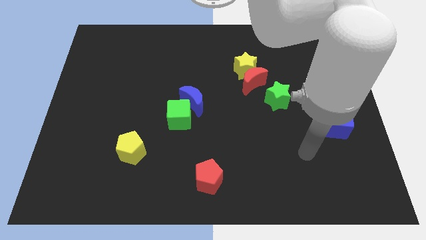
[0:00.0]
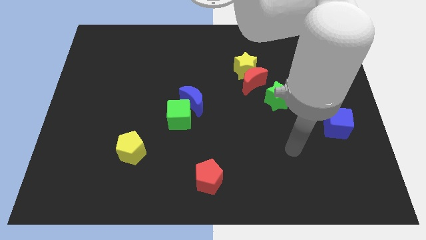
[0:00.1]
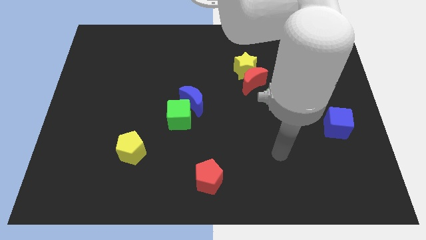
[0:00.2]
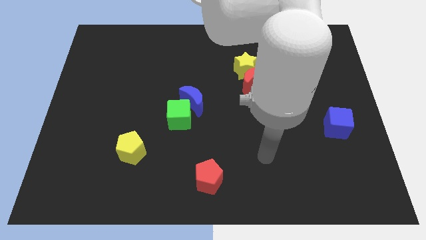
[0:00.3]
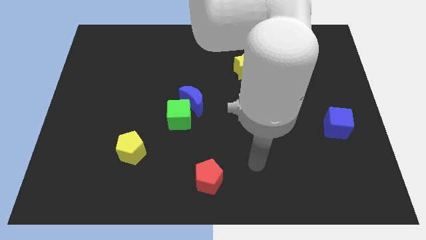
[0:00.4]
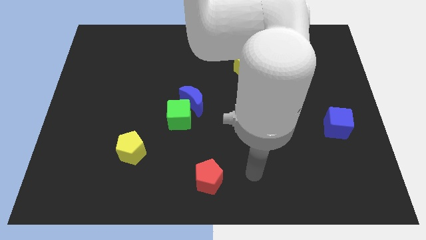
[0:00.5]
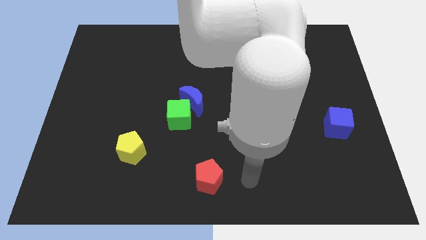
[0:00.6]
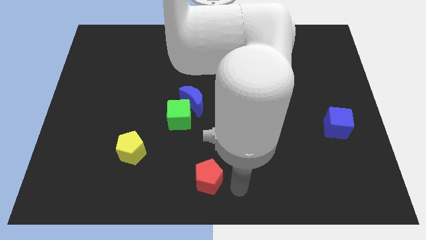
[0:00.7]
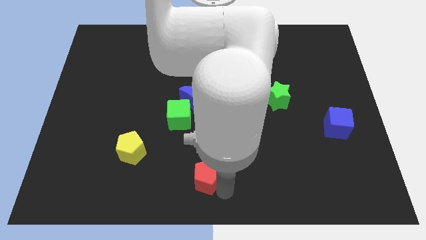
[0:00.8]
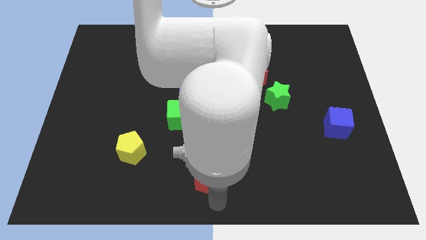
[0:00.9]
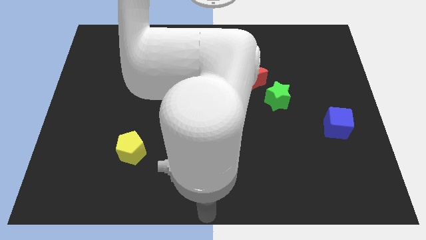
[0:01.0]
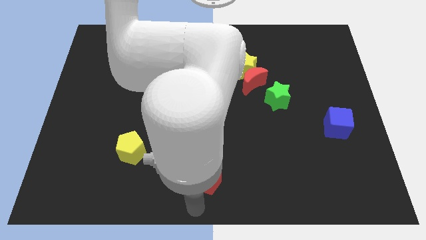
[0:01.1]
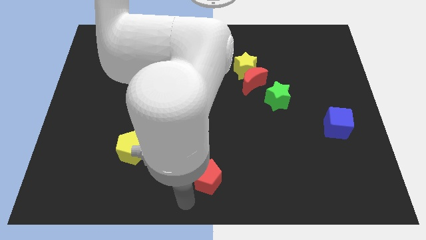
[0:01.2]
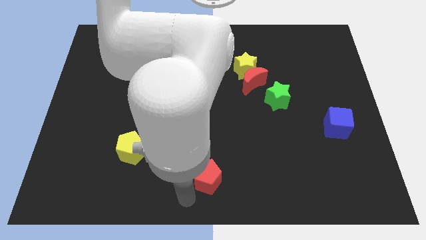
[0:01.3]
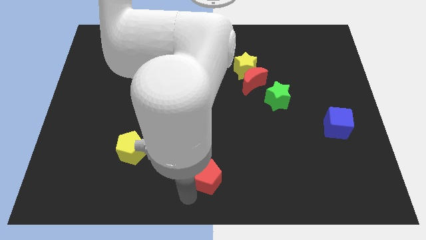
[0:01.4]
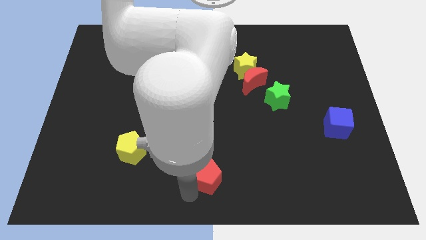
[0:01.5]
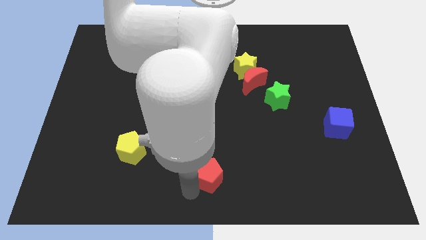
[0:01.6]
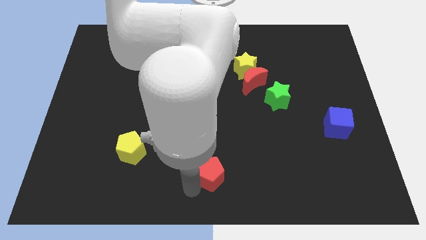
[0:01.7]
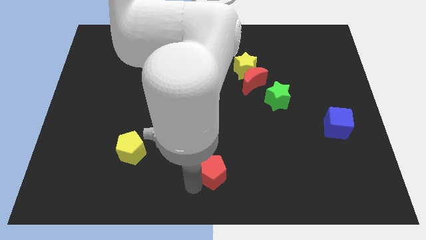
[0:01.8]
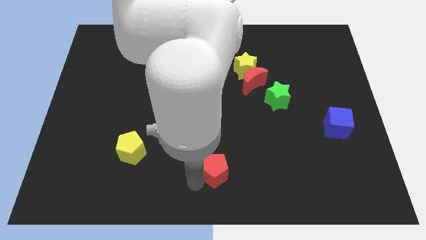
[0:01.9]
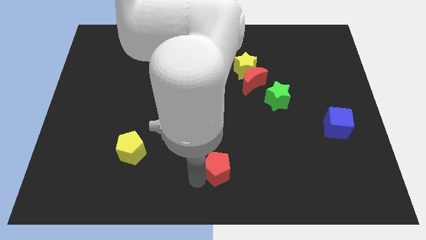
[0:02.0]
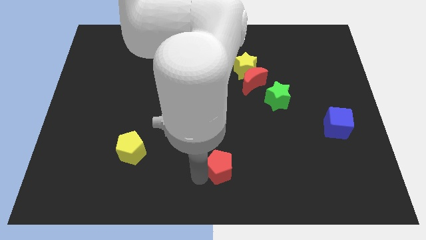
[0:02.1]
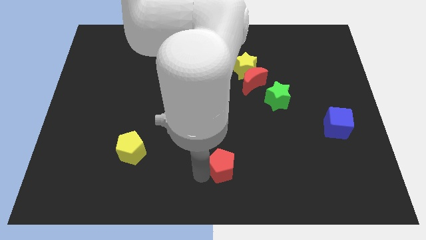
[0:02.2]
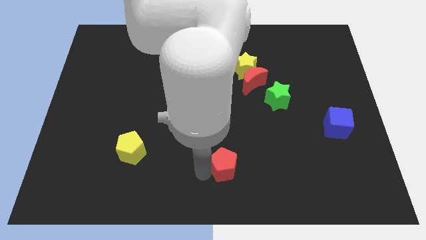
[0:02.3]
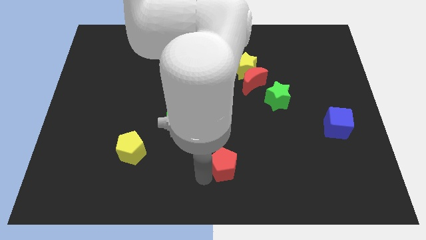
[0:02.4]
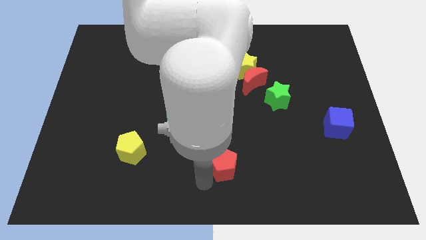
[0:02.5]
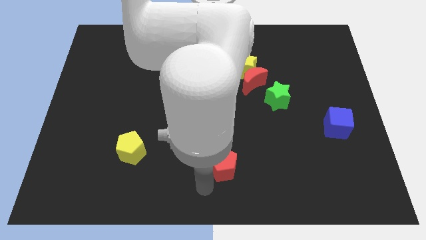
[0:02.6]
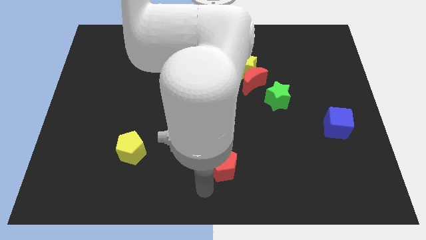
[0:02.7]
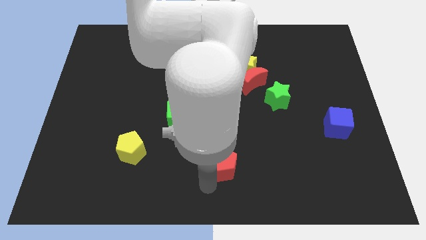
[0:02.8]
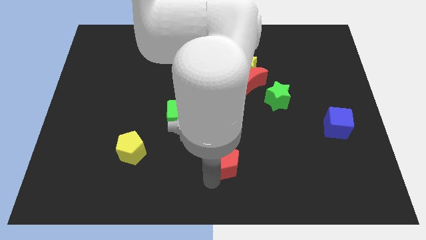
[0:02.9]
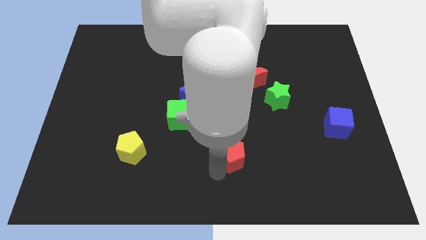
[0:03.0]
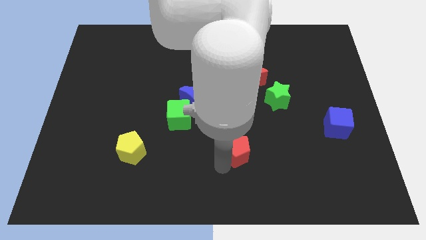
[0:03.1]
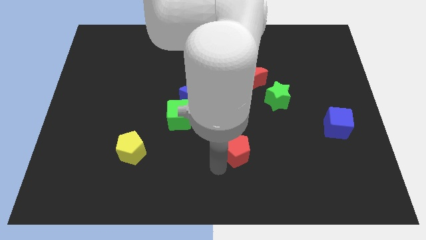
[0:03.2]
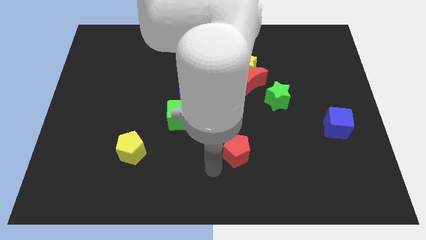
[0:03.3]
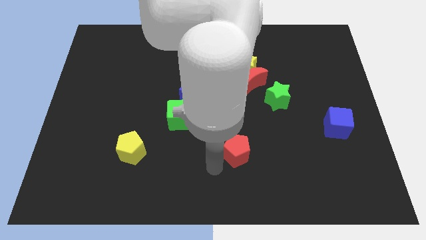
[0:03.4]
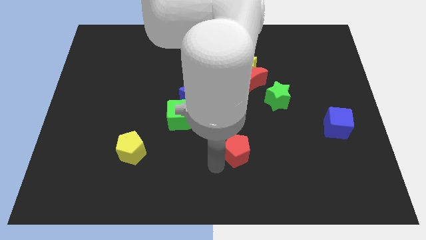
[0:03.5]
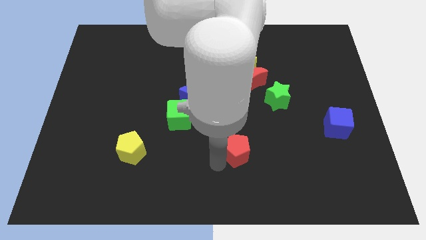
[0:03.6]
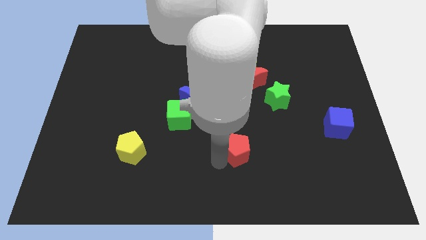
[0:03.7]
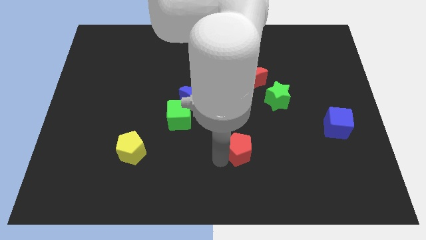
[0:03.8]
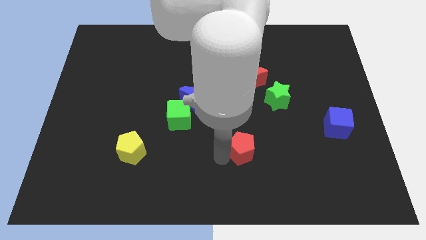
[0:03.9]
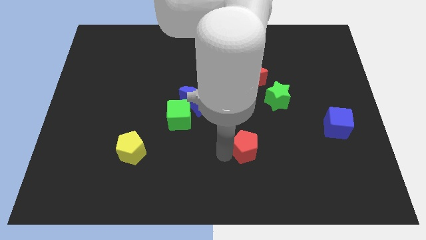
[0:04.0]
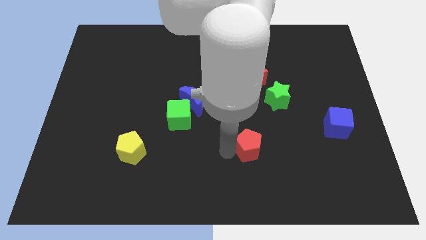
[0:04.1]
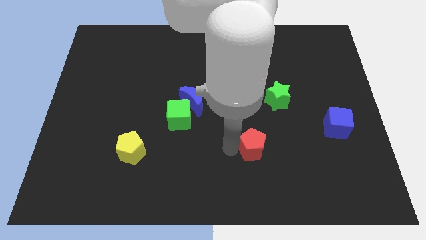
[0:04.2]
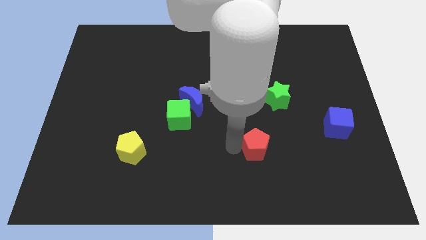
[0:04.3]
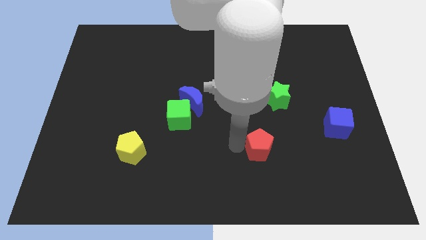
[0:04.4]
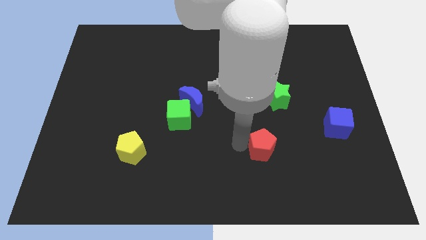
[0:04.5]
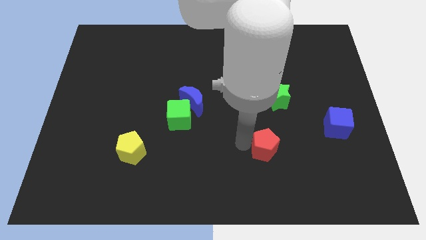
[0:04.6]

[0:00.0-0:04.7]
push the red pentagon below the green star

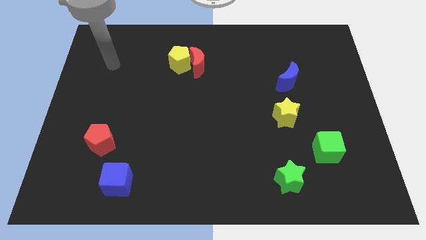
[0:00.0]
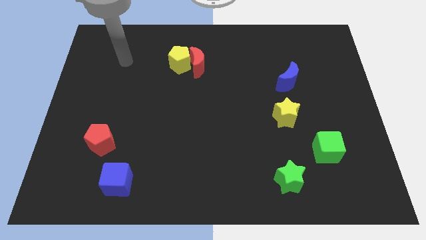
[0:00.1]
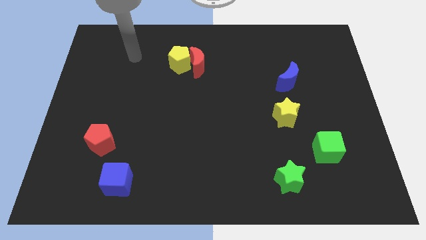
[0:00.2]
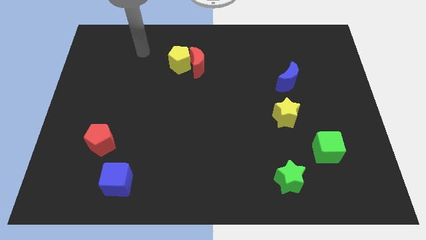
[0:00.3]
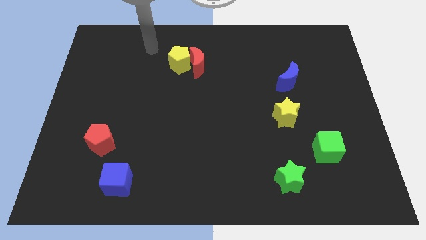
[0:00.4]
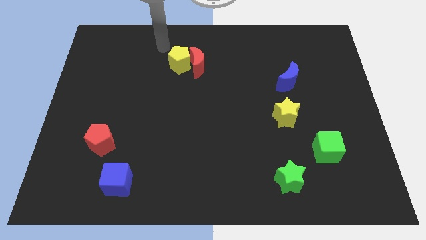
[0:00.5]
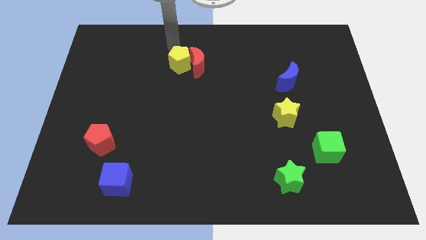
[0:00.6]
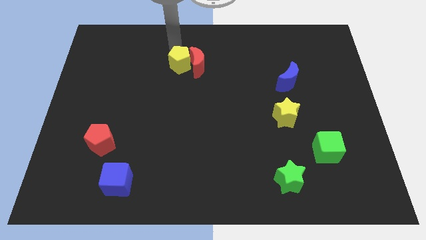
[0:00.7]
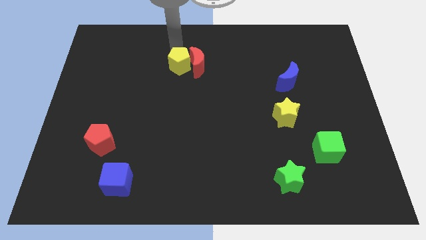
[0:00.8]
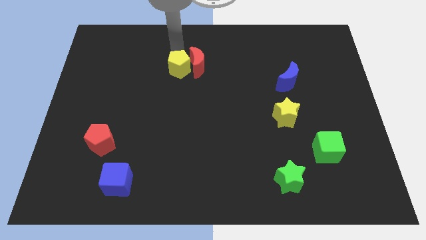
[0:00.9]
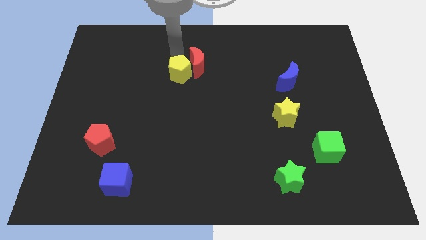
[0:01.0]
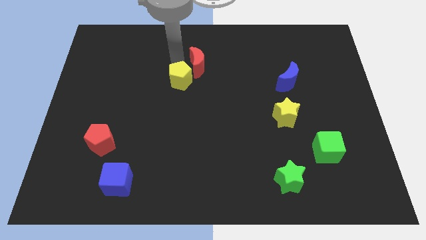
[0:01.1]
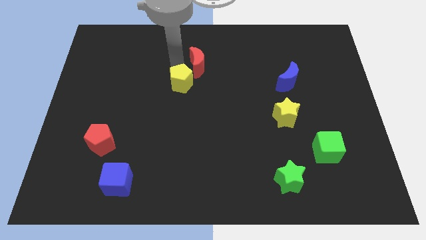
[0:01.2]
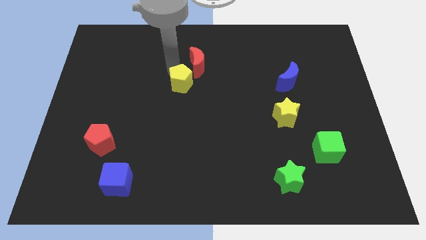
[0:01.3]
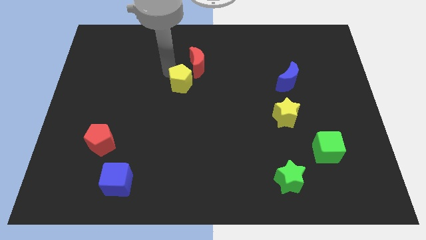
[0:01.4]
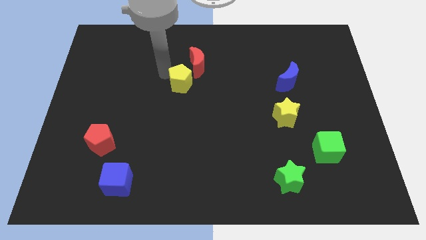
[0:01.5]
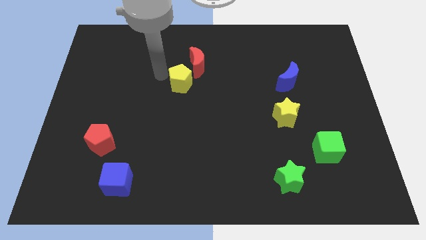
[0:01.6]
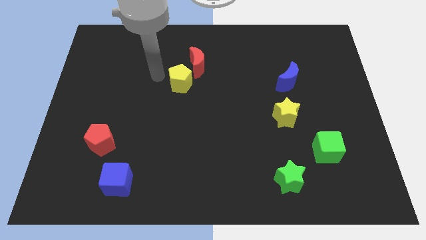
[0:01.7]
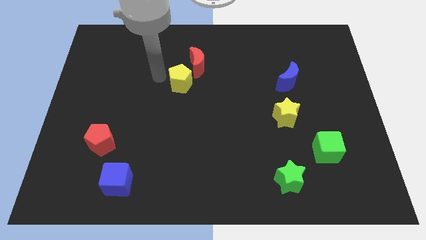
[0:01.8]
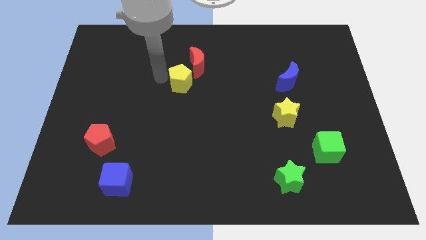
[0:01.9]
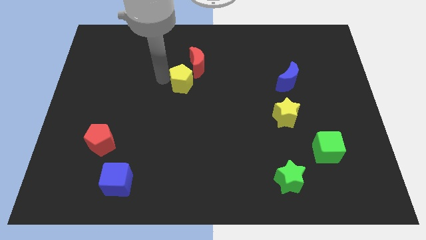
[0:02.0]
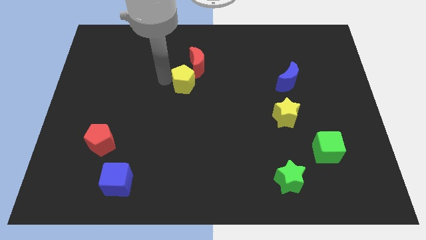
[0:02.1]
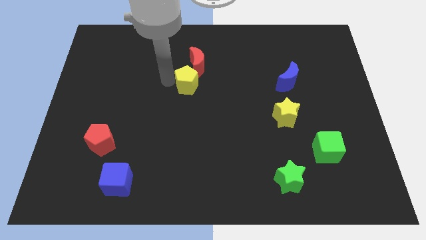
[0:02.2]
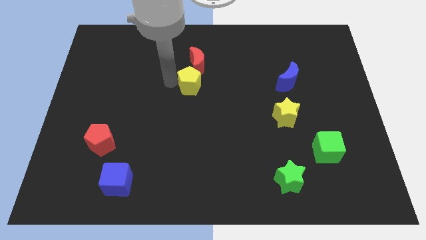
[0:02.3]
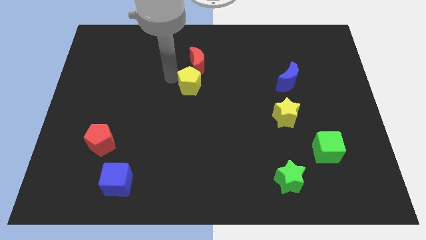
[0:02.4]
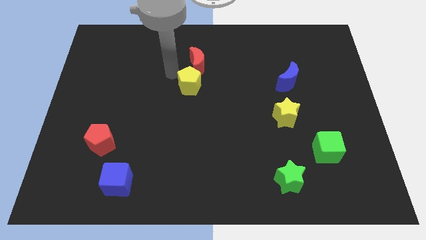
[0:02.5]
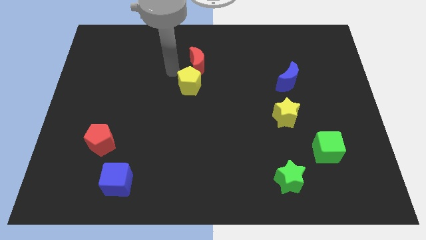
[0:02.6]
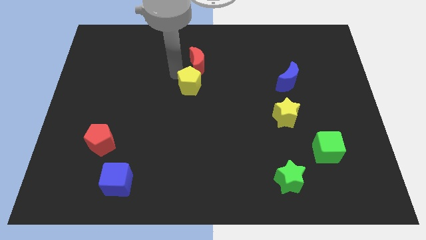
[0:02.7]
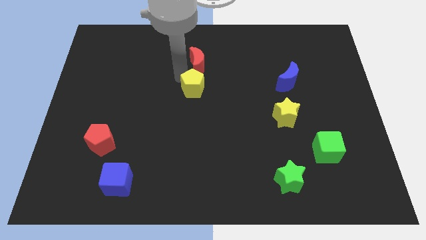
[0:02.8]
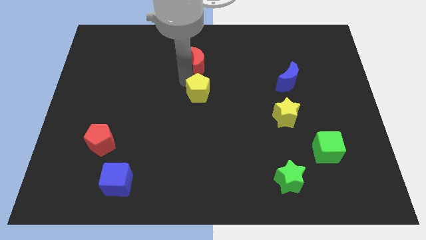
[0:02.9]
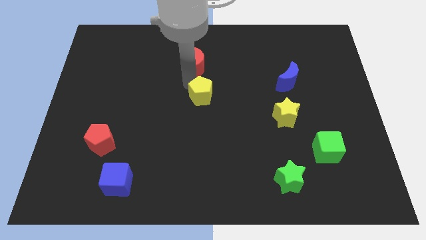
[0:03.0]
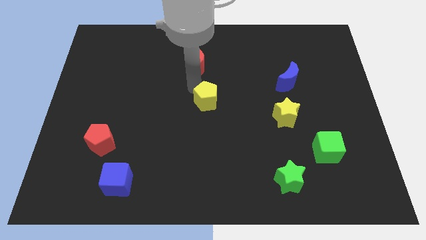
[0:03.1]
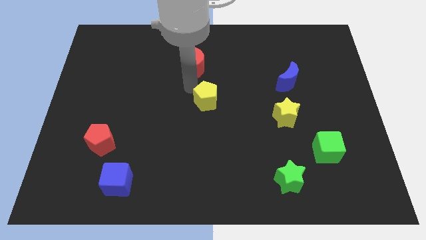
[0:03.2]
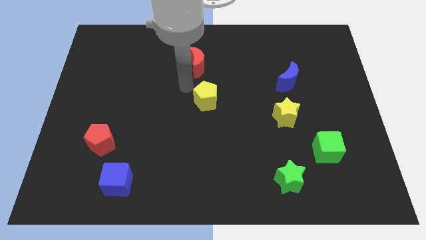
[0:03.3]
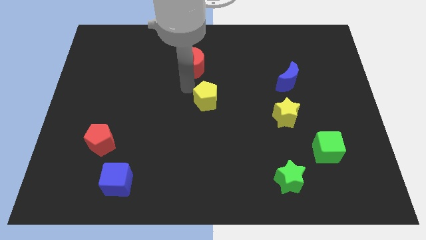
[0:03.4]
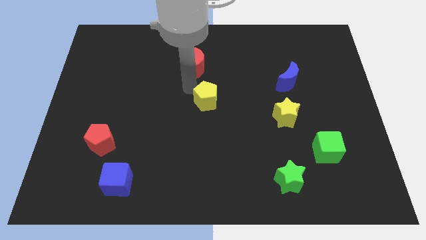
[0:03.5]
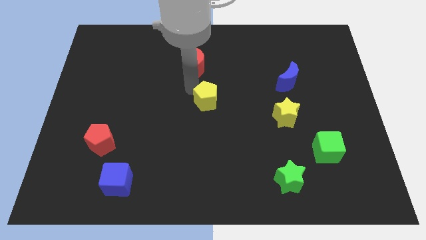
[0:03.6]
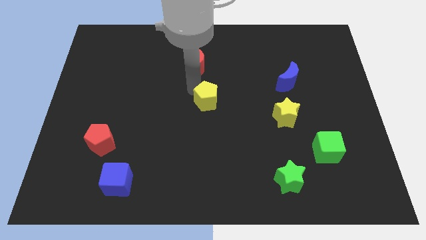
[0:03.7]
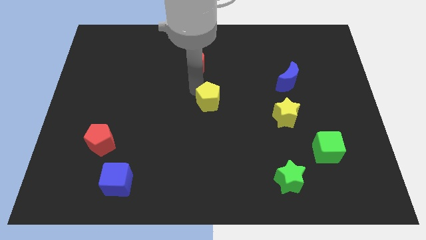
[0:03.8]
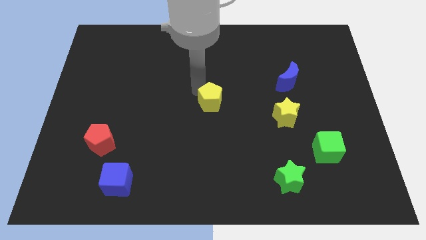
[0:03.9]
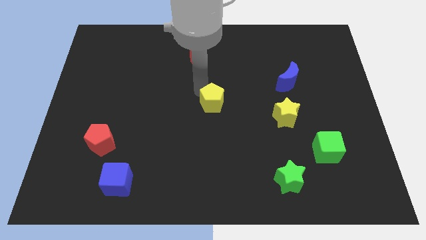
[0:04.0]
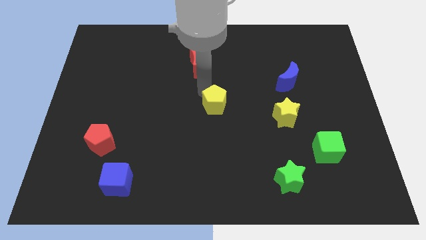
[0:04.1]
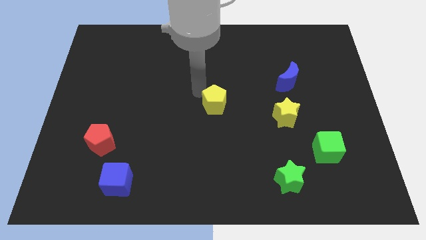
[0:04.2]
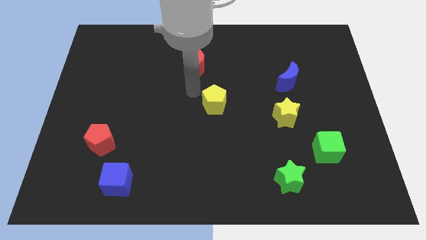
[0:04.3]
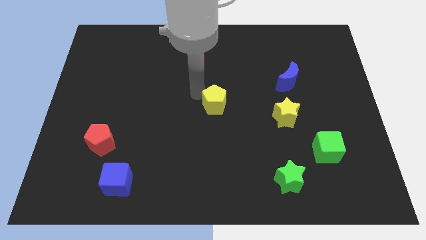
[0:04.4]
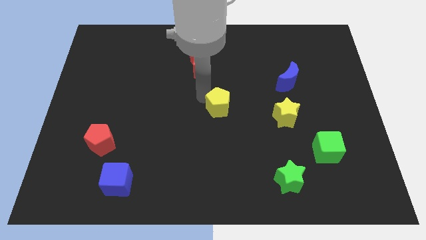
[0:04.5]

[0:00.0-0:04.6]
move the yellow pentagon left of the yellow star
